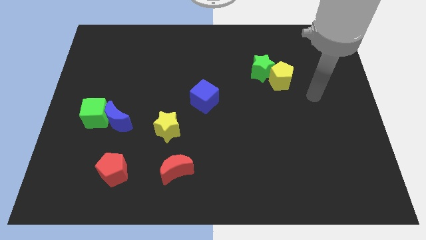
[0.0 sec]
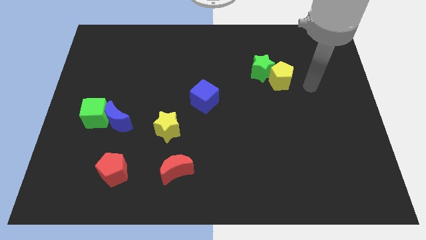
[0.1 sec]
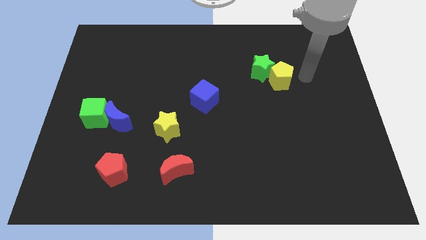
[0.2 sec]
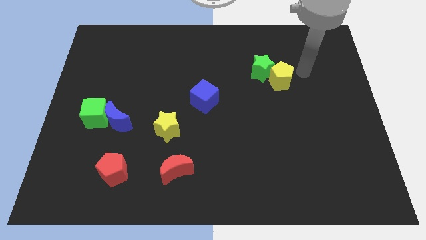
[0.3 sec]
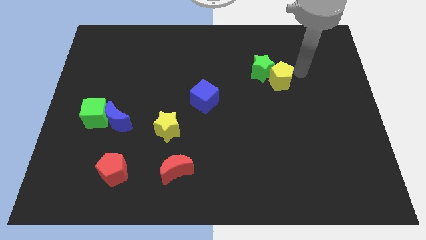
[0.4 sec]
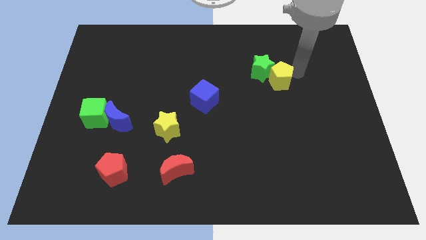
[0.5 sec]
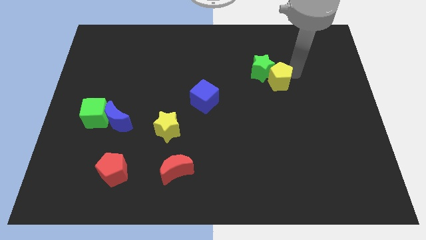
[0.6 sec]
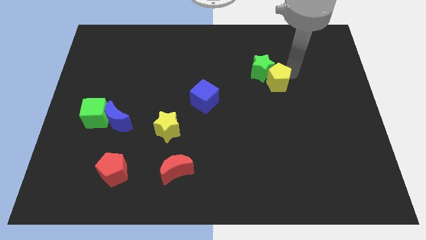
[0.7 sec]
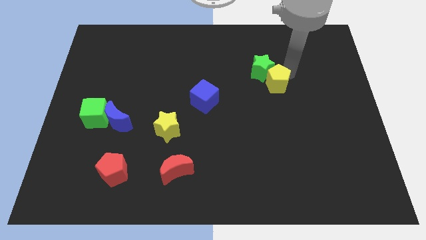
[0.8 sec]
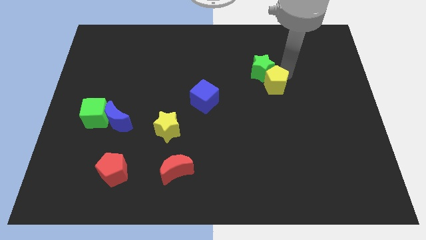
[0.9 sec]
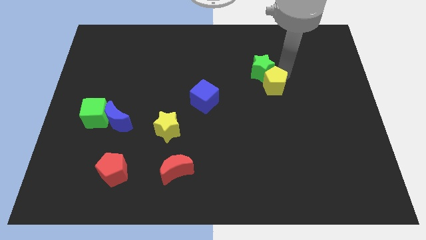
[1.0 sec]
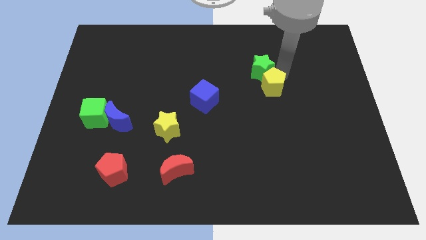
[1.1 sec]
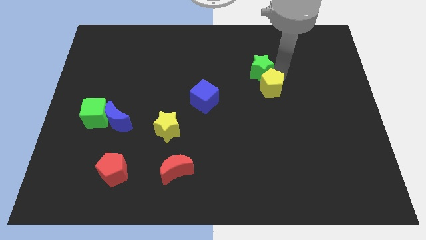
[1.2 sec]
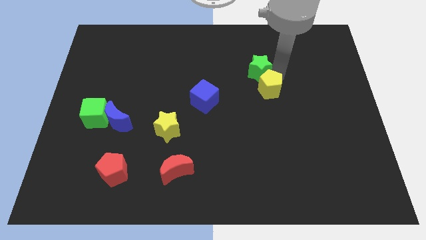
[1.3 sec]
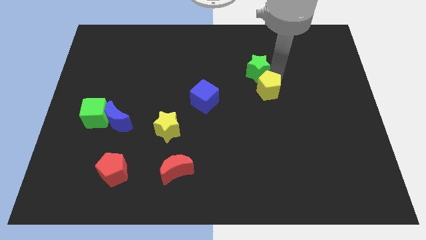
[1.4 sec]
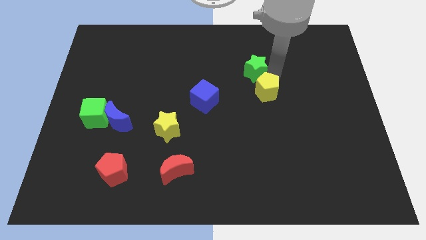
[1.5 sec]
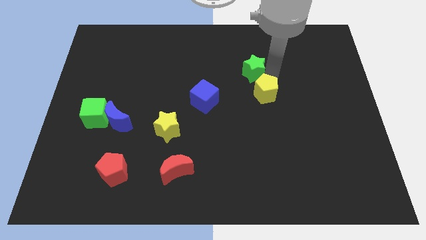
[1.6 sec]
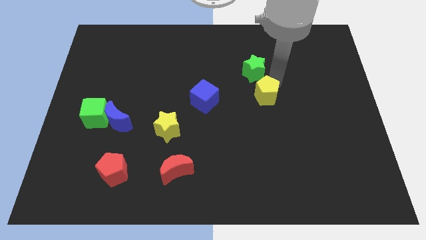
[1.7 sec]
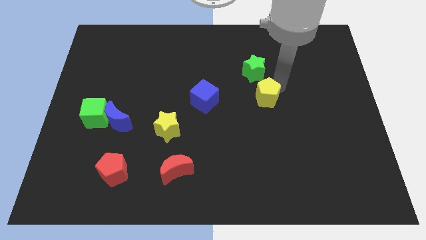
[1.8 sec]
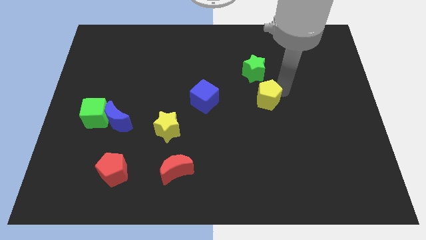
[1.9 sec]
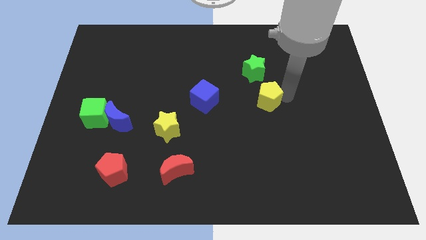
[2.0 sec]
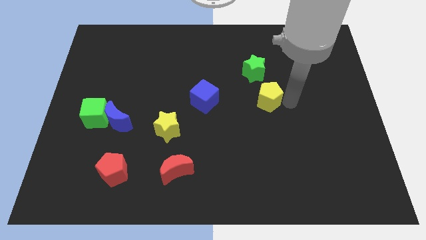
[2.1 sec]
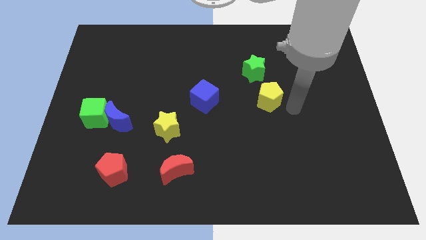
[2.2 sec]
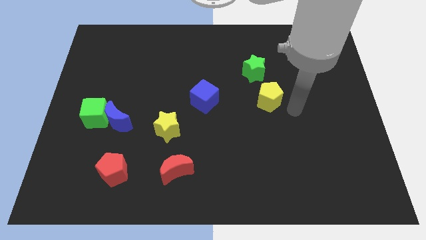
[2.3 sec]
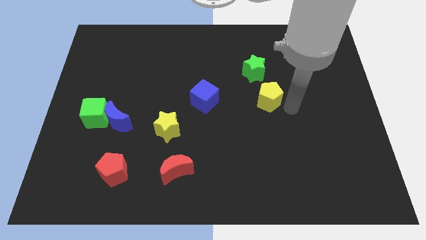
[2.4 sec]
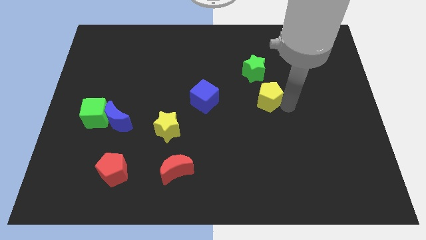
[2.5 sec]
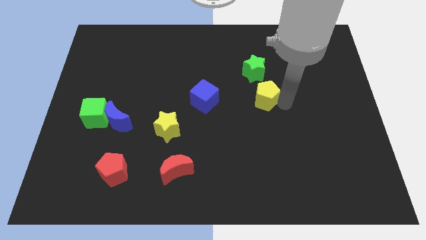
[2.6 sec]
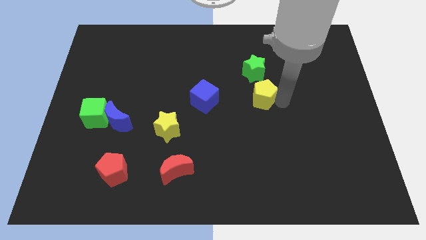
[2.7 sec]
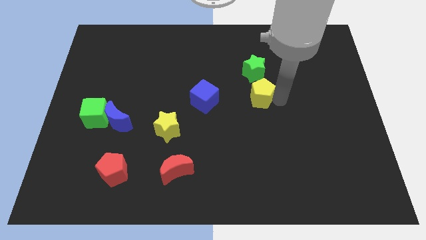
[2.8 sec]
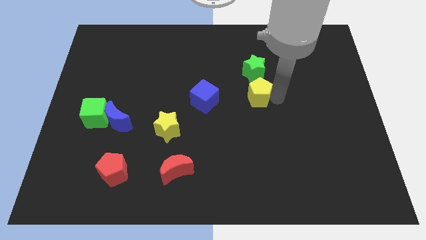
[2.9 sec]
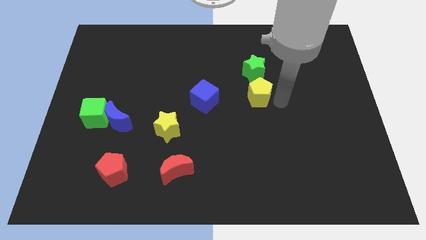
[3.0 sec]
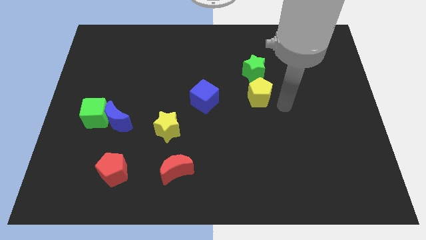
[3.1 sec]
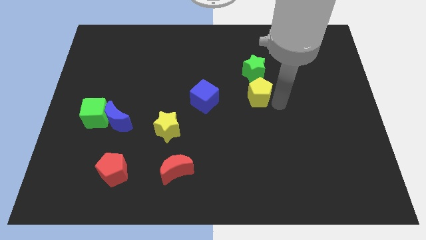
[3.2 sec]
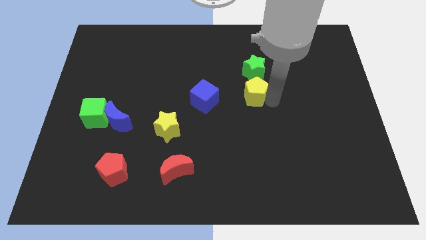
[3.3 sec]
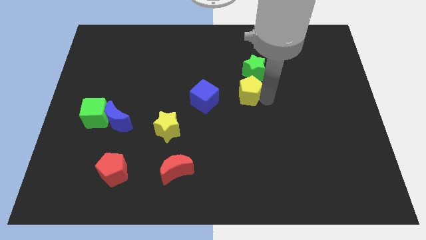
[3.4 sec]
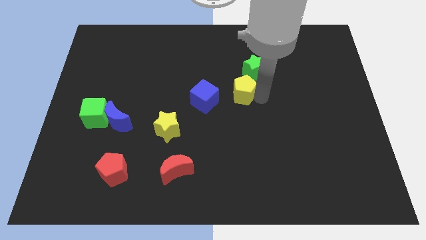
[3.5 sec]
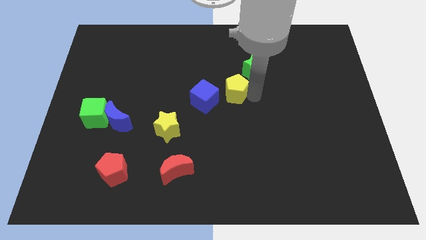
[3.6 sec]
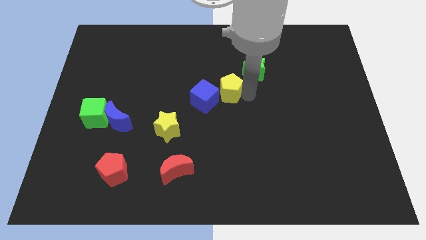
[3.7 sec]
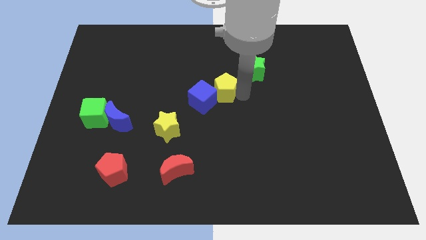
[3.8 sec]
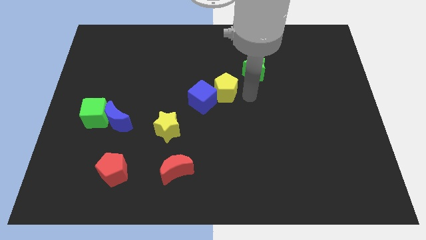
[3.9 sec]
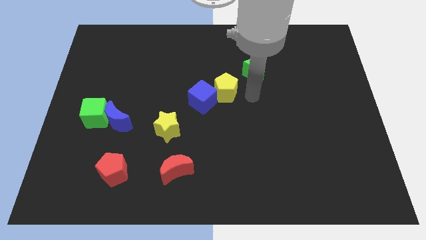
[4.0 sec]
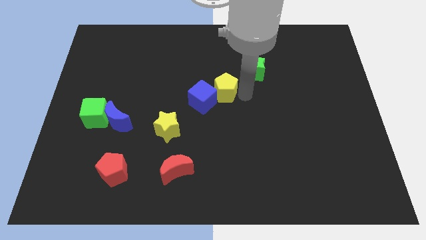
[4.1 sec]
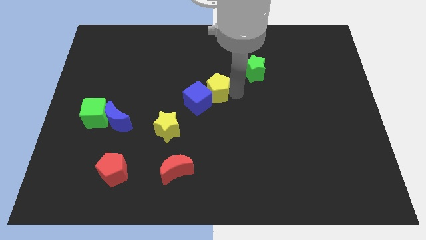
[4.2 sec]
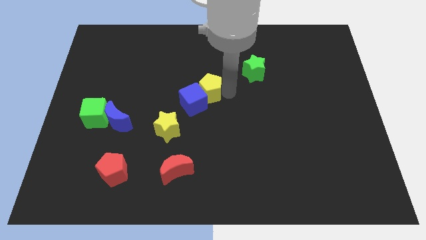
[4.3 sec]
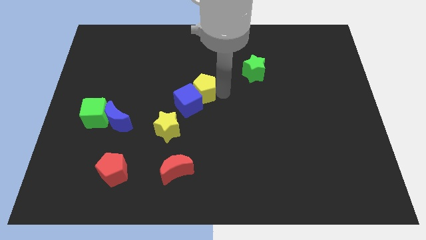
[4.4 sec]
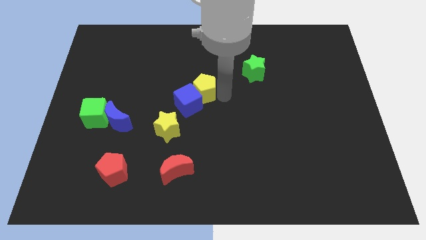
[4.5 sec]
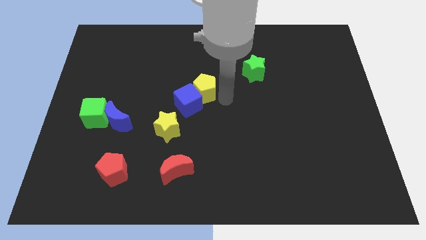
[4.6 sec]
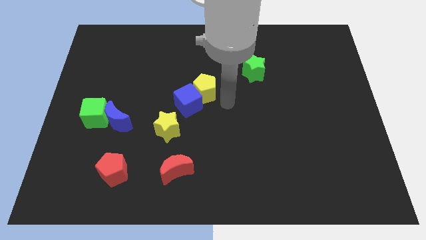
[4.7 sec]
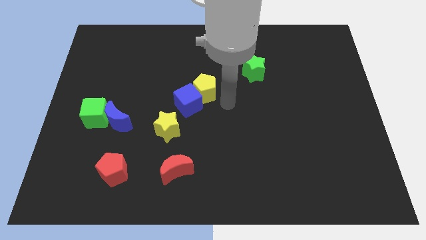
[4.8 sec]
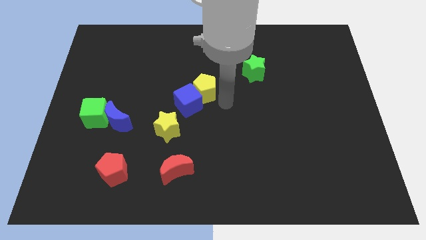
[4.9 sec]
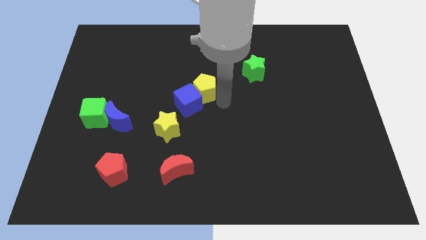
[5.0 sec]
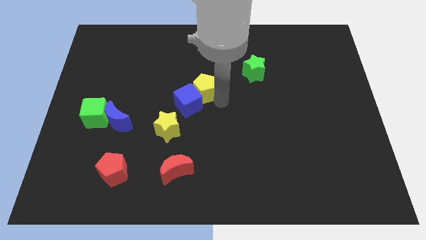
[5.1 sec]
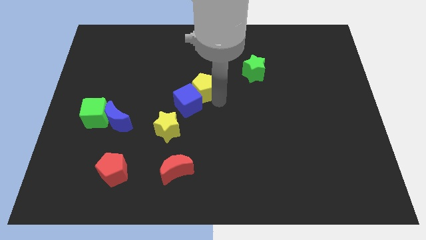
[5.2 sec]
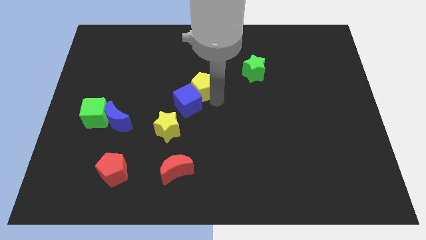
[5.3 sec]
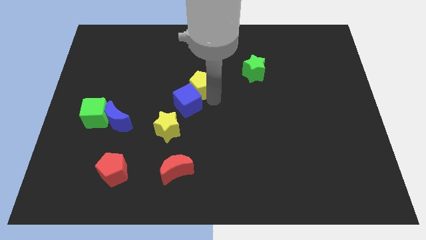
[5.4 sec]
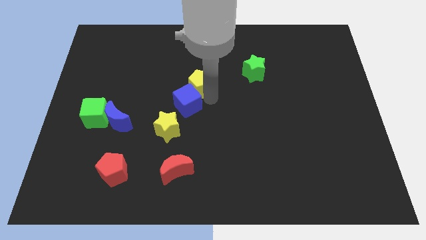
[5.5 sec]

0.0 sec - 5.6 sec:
slide the yellow pentagon left

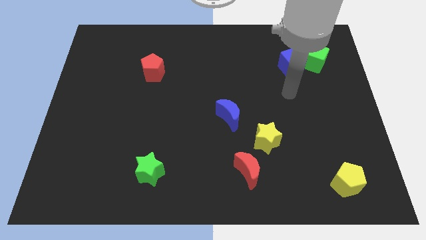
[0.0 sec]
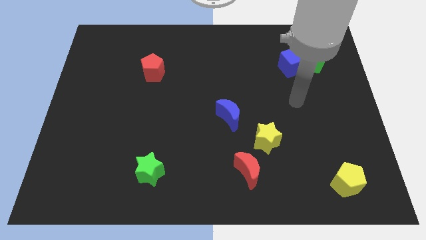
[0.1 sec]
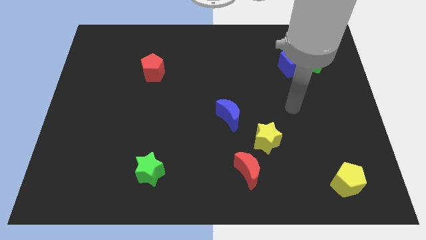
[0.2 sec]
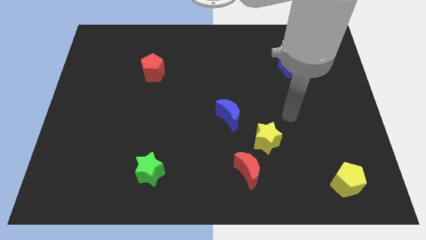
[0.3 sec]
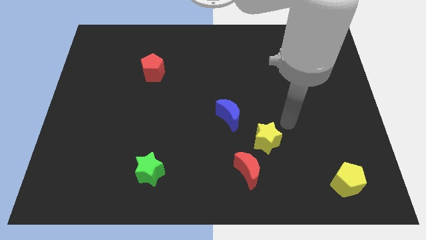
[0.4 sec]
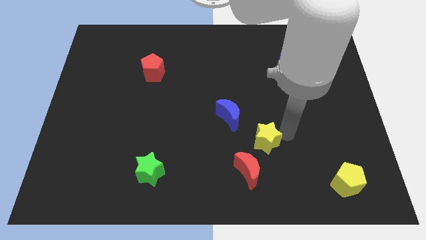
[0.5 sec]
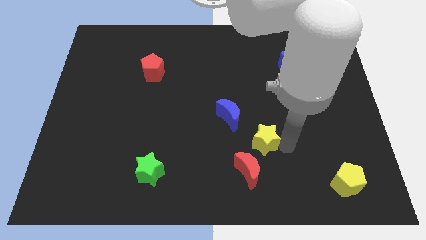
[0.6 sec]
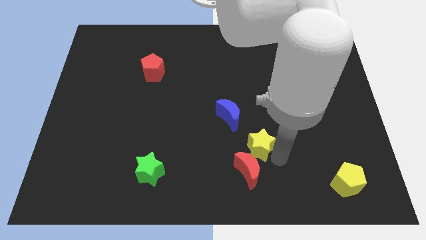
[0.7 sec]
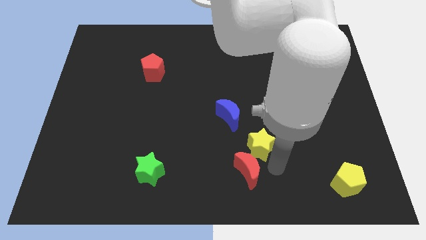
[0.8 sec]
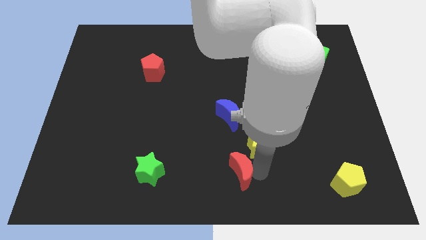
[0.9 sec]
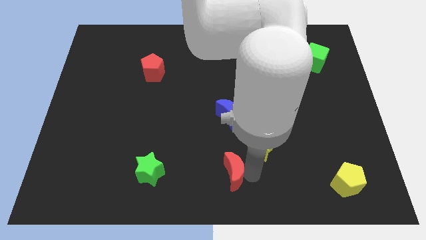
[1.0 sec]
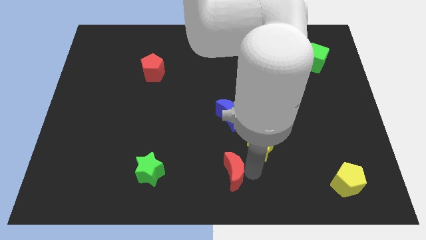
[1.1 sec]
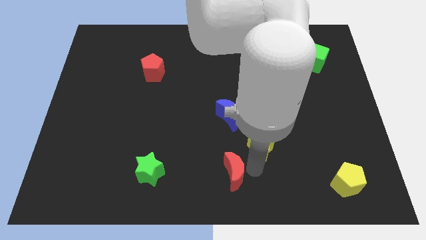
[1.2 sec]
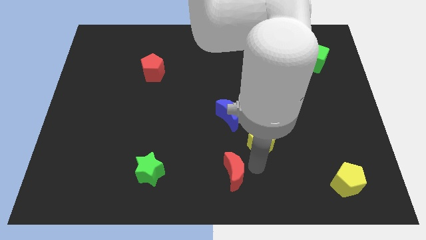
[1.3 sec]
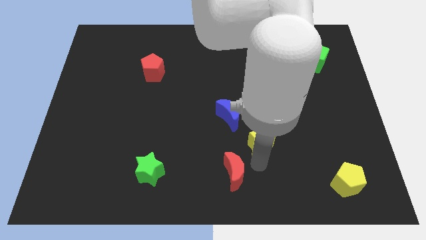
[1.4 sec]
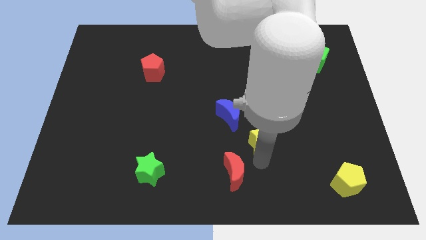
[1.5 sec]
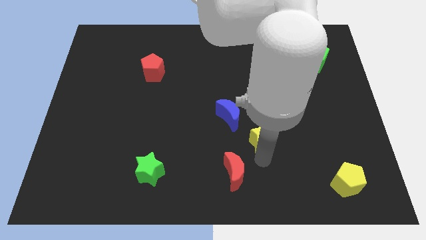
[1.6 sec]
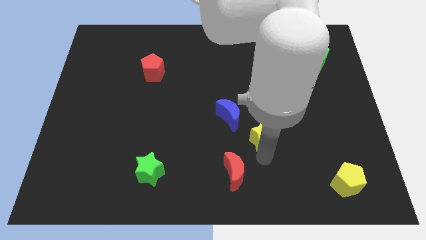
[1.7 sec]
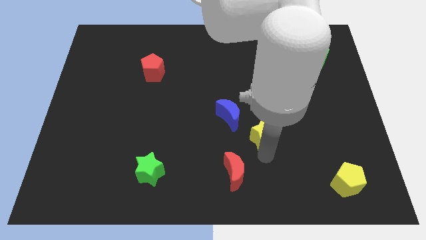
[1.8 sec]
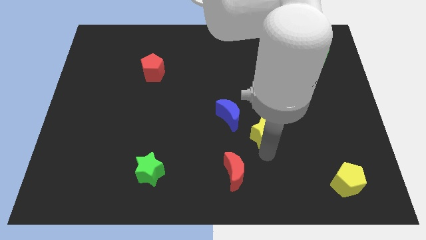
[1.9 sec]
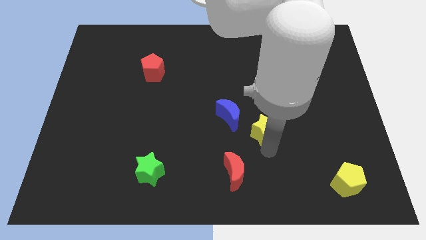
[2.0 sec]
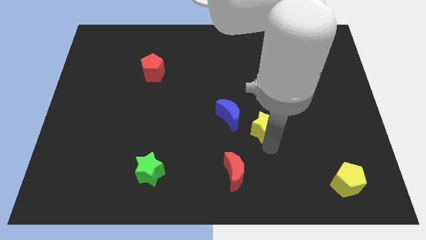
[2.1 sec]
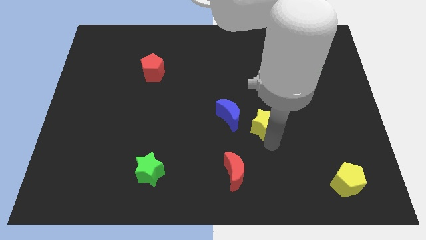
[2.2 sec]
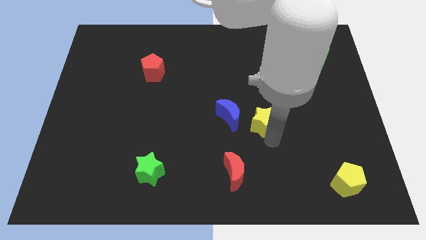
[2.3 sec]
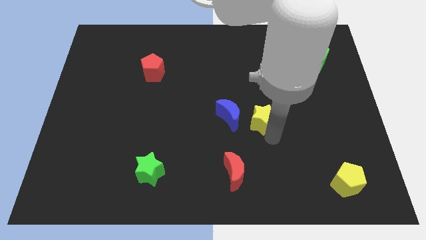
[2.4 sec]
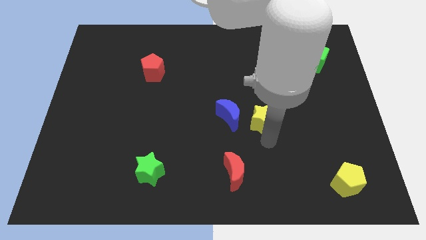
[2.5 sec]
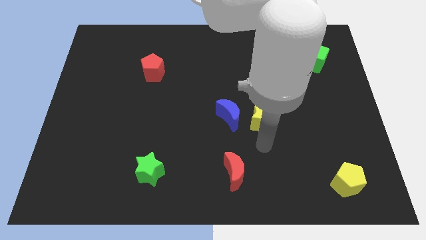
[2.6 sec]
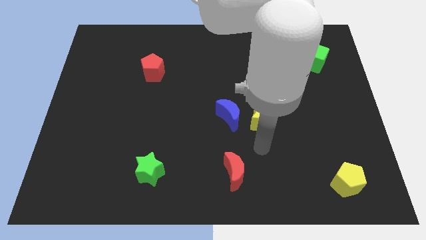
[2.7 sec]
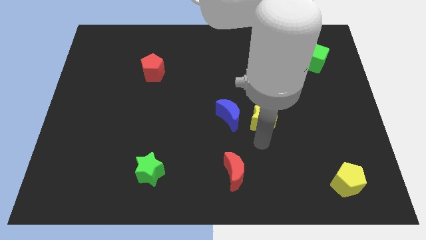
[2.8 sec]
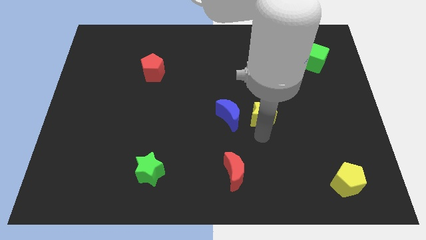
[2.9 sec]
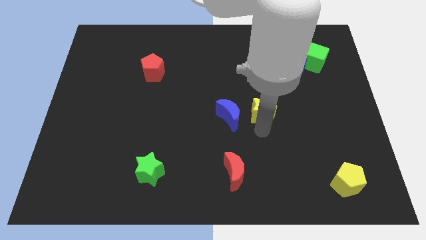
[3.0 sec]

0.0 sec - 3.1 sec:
slightly push the yellow star up
